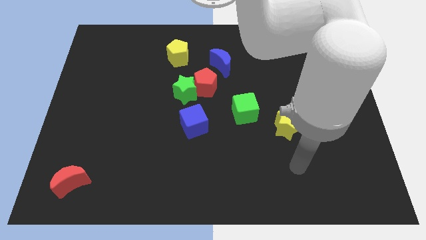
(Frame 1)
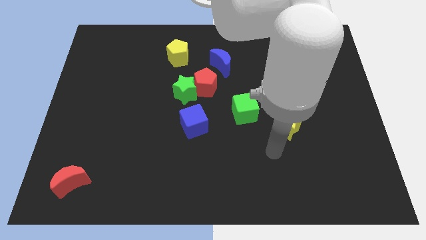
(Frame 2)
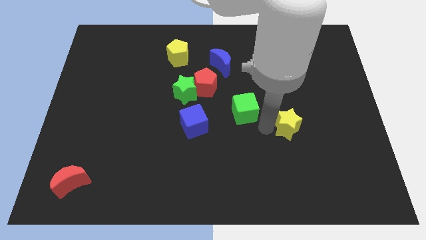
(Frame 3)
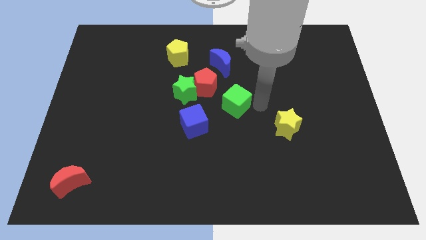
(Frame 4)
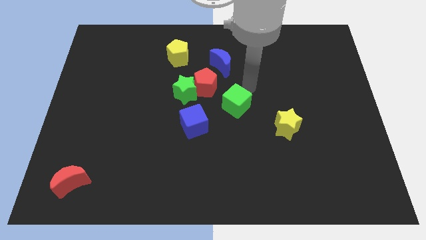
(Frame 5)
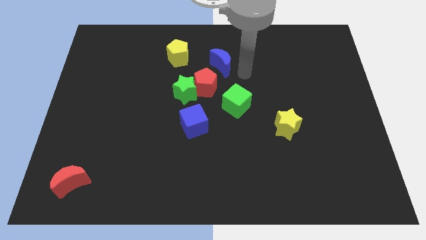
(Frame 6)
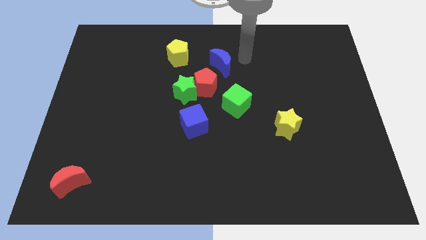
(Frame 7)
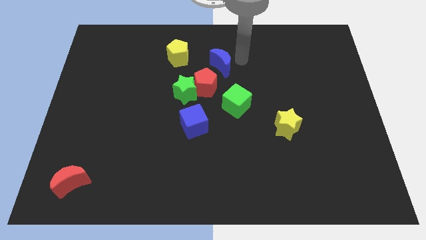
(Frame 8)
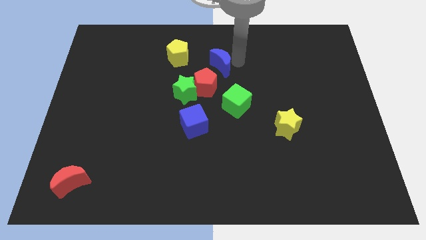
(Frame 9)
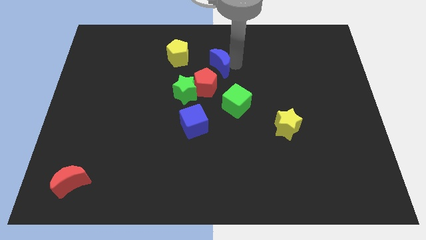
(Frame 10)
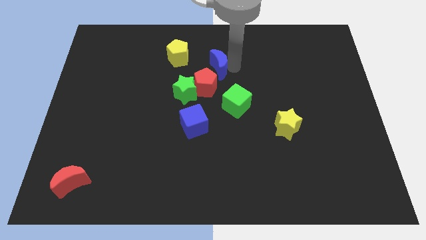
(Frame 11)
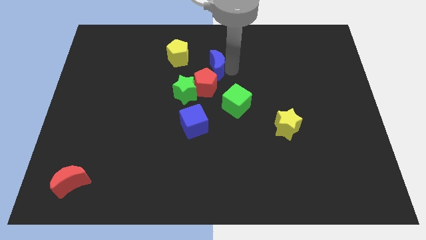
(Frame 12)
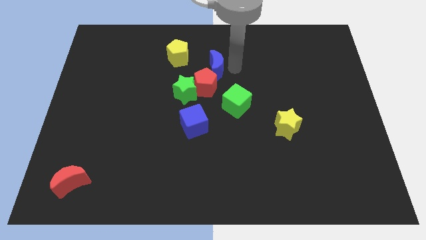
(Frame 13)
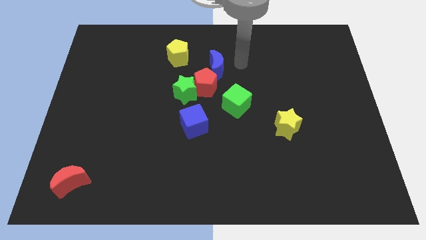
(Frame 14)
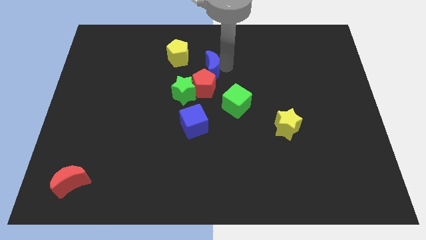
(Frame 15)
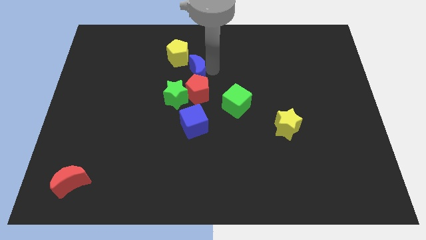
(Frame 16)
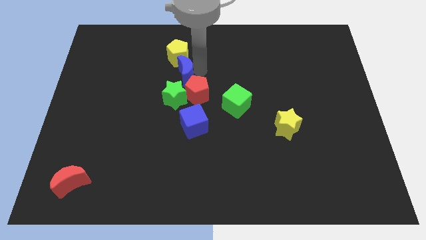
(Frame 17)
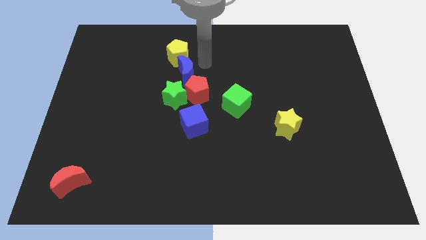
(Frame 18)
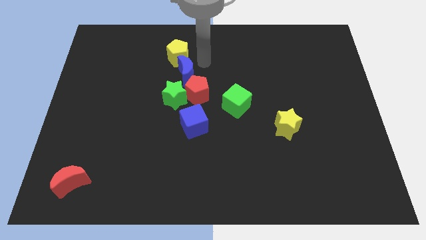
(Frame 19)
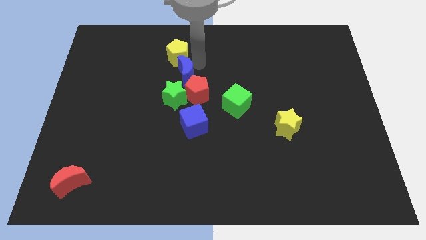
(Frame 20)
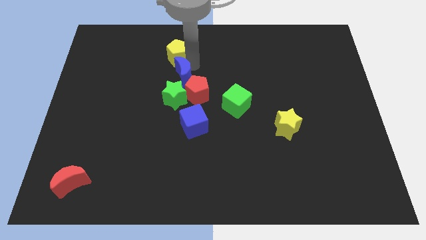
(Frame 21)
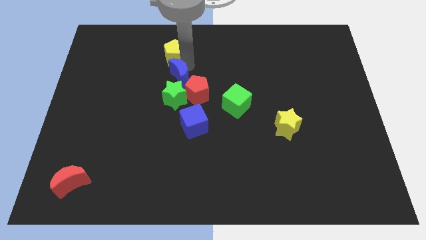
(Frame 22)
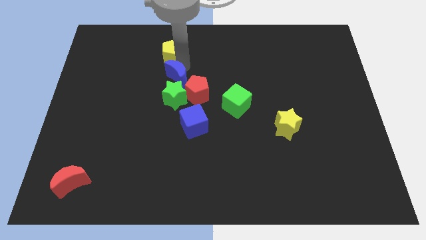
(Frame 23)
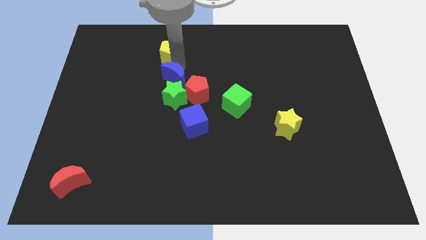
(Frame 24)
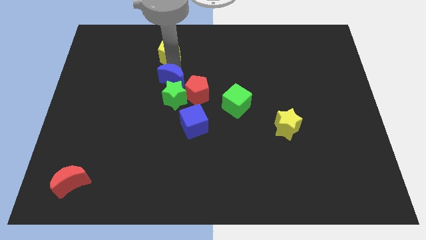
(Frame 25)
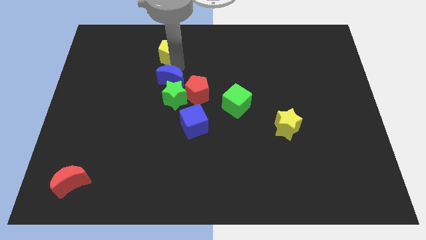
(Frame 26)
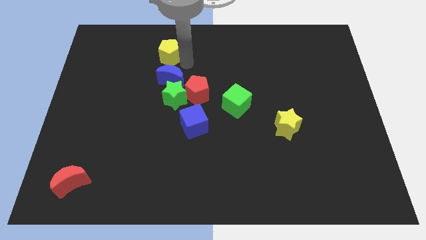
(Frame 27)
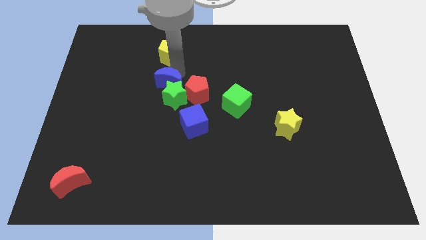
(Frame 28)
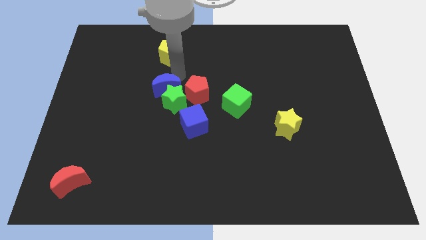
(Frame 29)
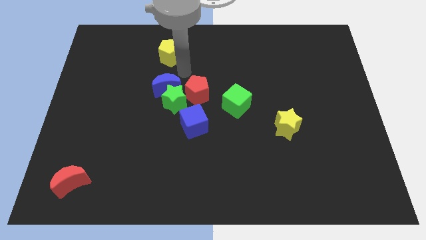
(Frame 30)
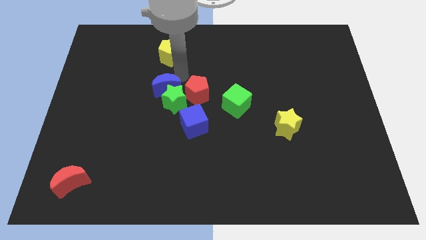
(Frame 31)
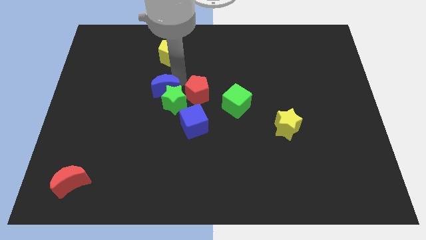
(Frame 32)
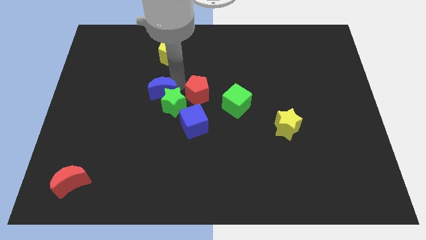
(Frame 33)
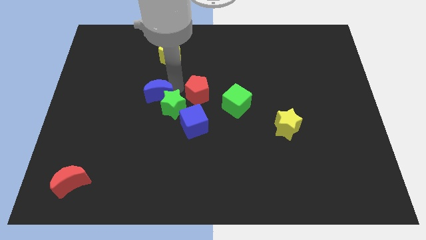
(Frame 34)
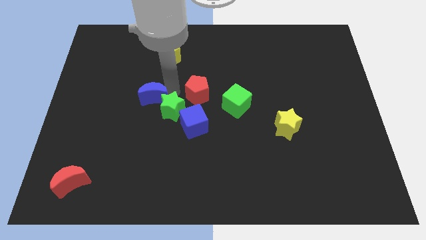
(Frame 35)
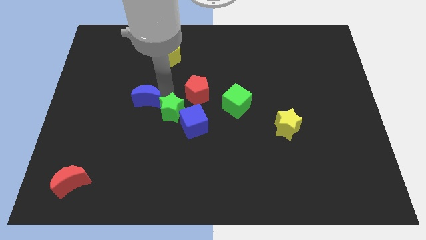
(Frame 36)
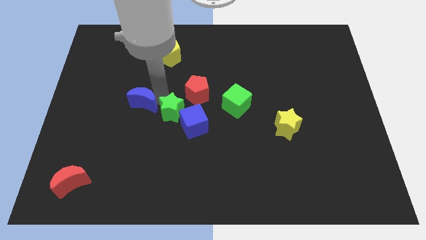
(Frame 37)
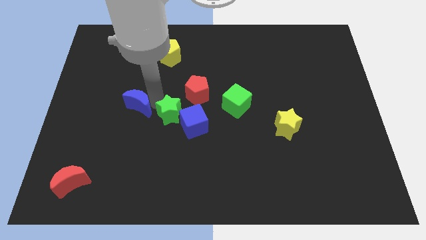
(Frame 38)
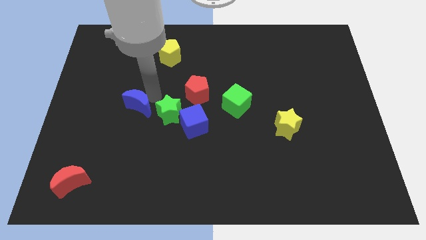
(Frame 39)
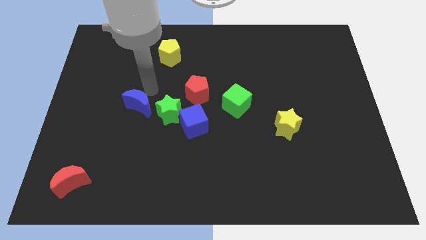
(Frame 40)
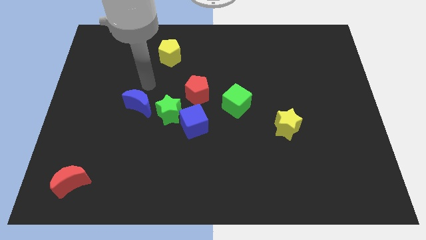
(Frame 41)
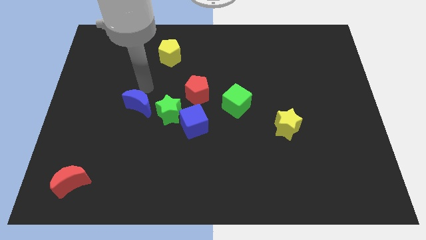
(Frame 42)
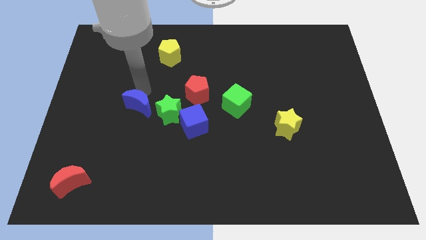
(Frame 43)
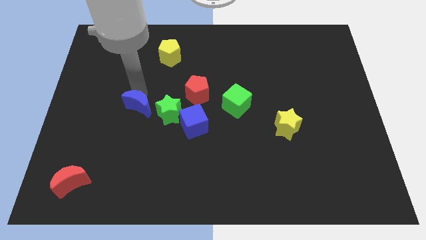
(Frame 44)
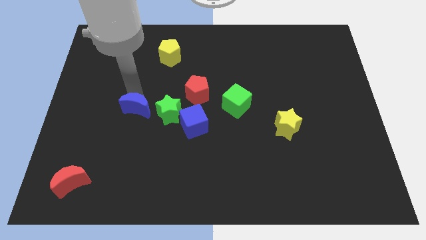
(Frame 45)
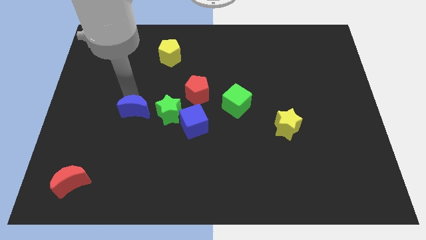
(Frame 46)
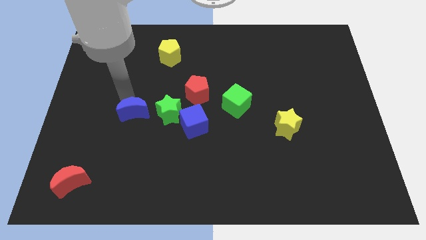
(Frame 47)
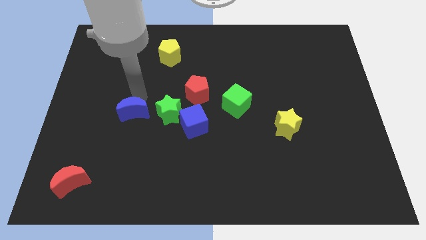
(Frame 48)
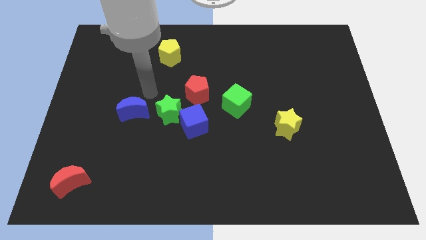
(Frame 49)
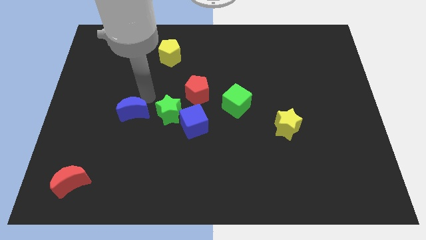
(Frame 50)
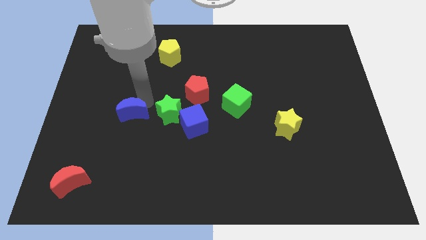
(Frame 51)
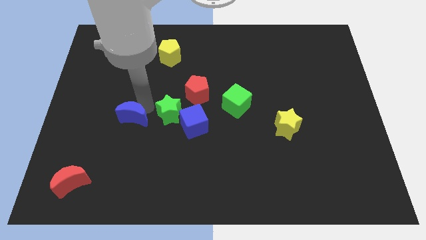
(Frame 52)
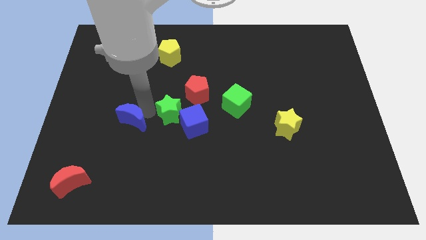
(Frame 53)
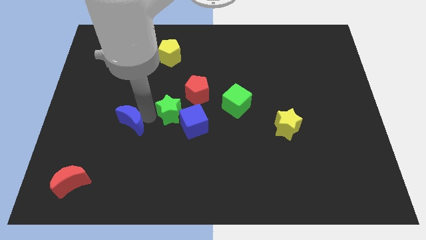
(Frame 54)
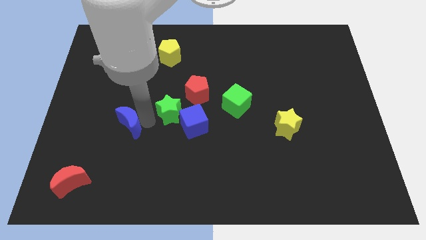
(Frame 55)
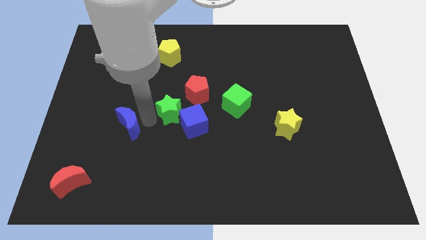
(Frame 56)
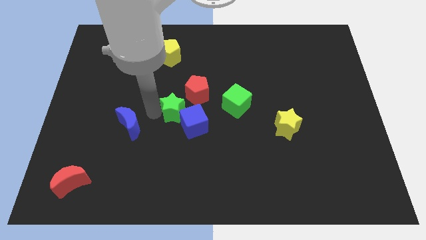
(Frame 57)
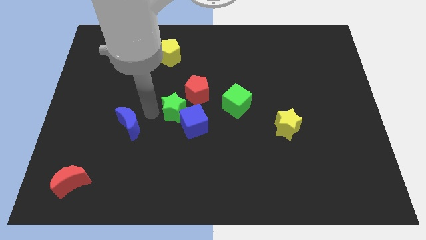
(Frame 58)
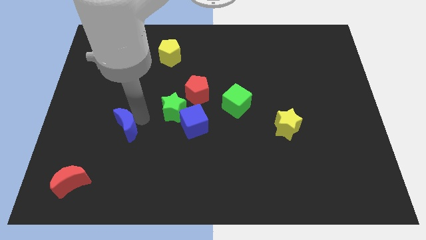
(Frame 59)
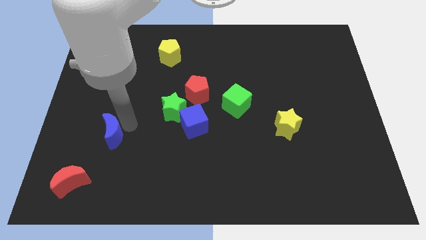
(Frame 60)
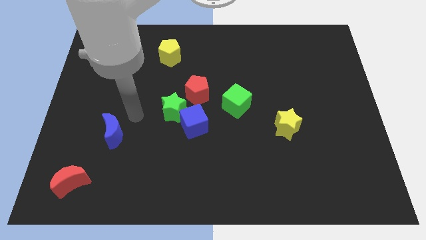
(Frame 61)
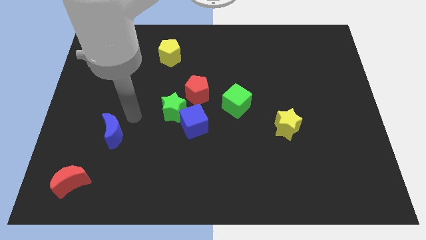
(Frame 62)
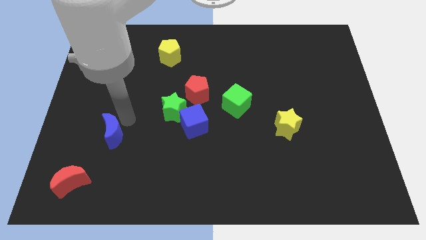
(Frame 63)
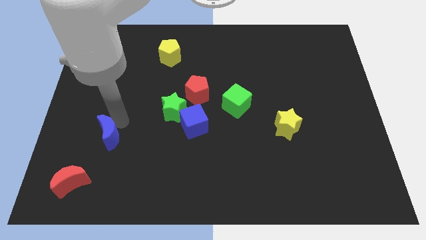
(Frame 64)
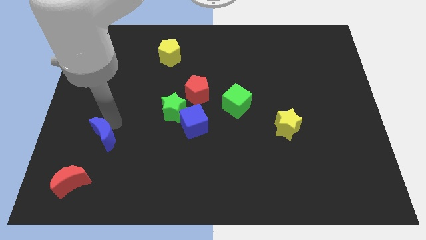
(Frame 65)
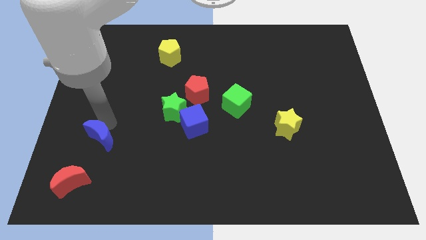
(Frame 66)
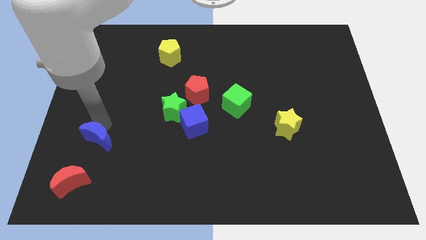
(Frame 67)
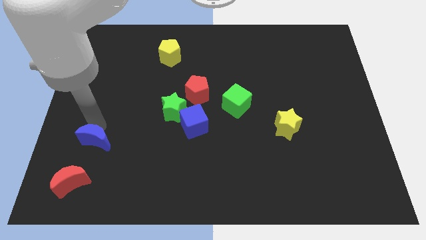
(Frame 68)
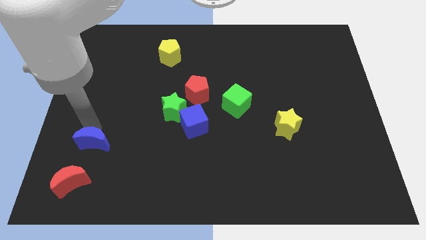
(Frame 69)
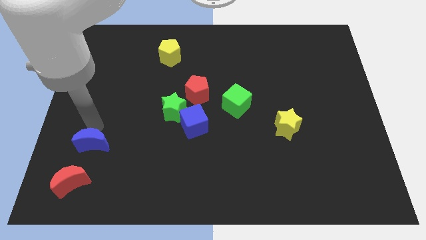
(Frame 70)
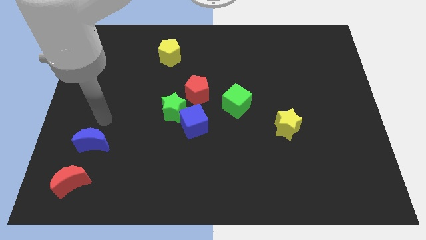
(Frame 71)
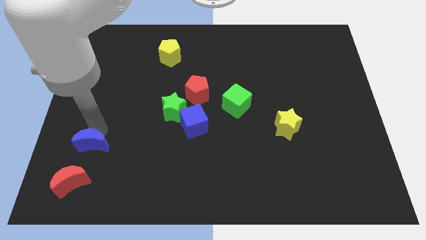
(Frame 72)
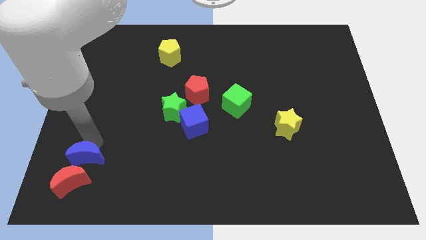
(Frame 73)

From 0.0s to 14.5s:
push the blue moon to the red moon
